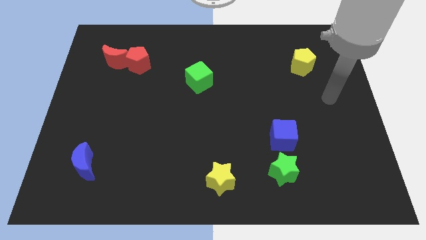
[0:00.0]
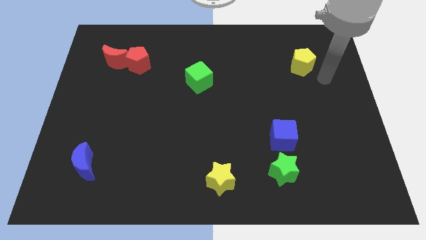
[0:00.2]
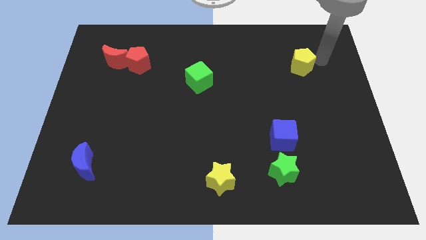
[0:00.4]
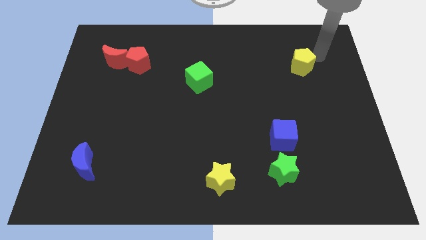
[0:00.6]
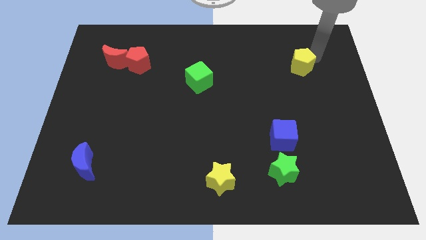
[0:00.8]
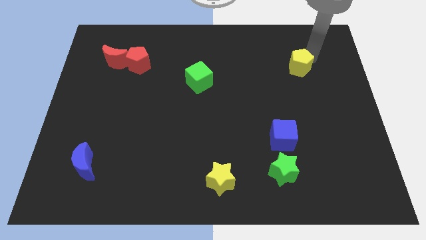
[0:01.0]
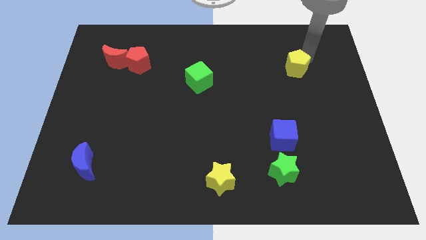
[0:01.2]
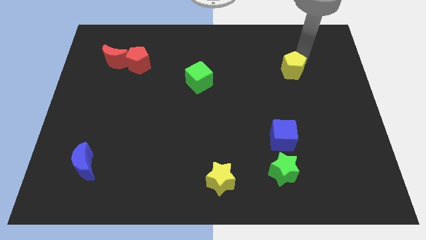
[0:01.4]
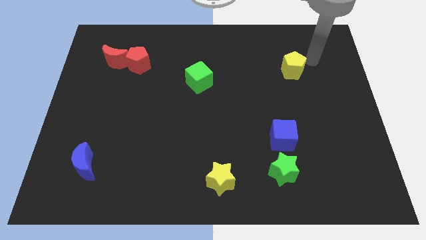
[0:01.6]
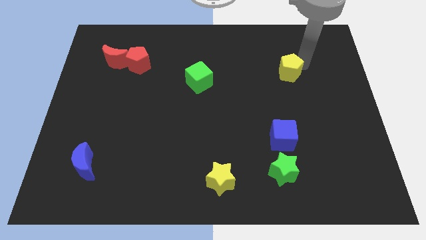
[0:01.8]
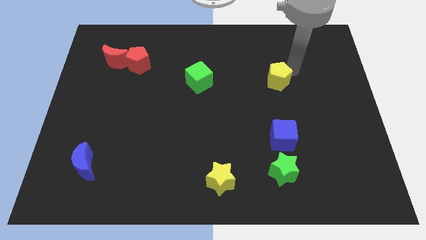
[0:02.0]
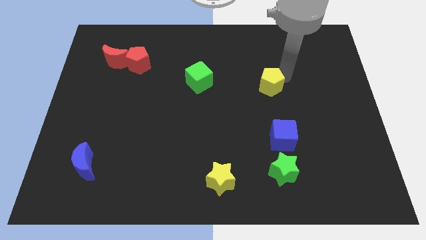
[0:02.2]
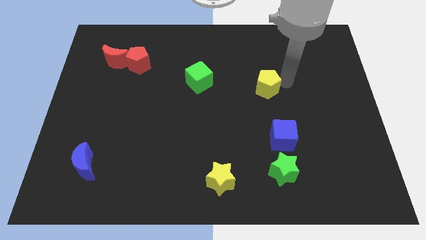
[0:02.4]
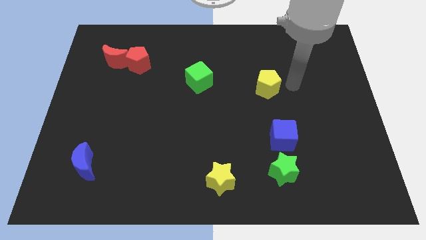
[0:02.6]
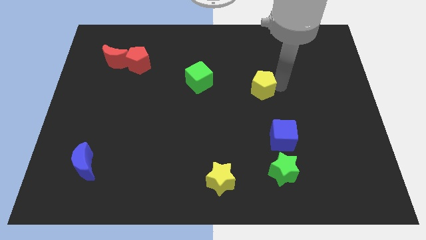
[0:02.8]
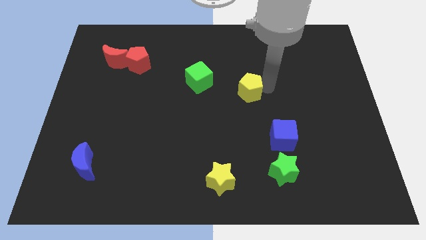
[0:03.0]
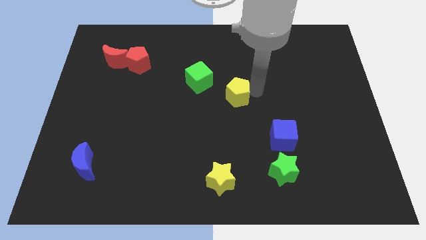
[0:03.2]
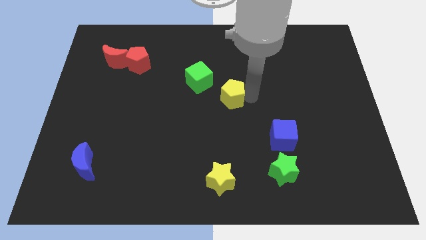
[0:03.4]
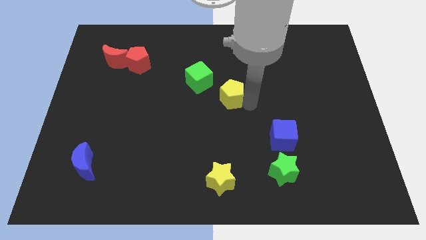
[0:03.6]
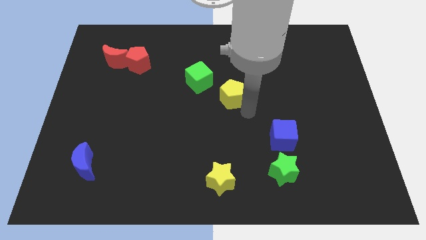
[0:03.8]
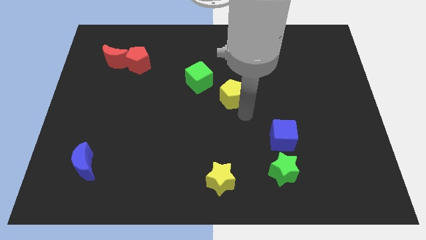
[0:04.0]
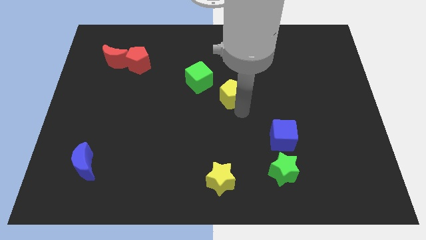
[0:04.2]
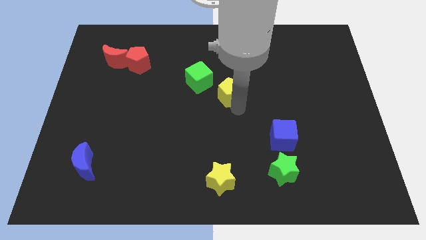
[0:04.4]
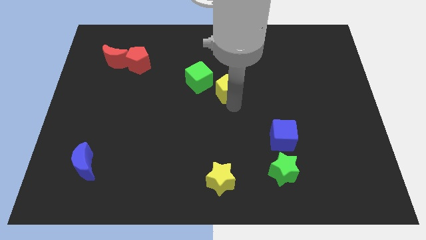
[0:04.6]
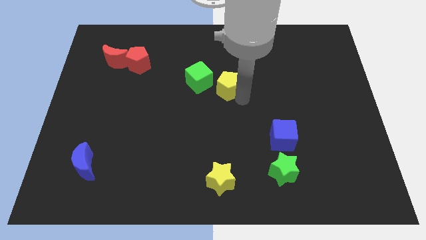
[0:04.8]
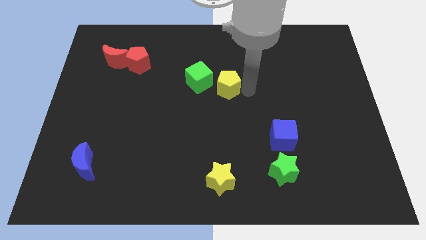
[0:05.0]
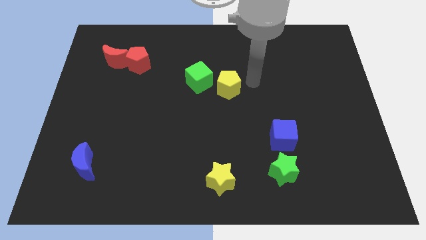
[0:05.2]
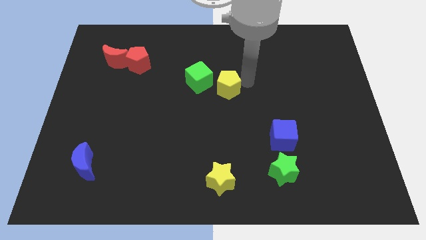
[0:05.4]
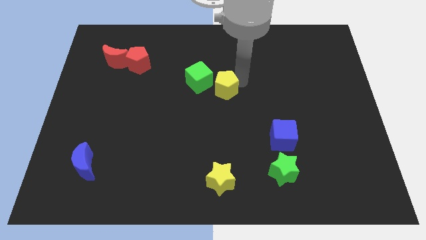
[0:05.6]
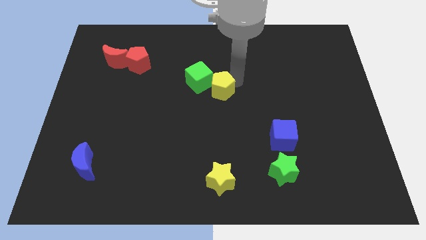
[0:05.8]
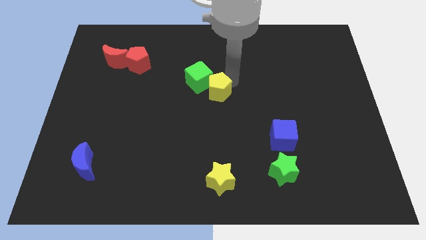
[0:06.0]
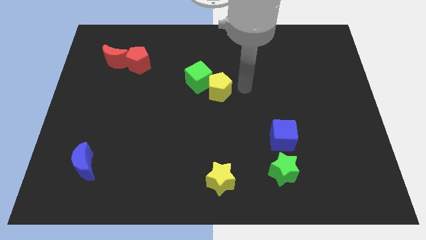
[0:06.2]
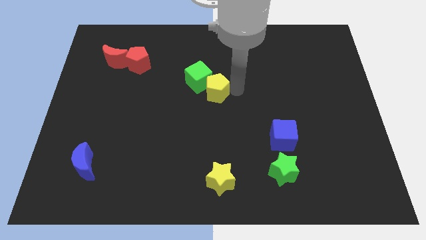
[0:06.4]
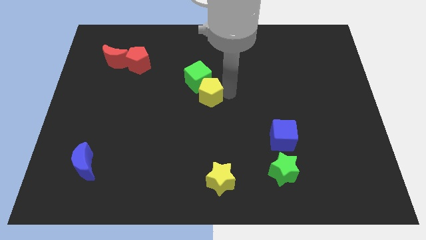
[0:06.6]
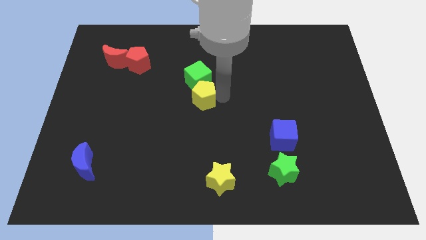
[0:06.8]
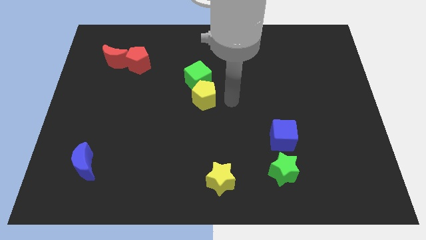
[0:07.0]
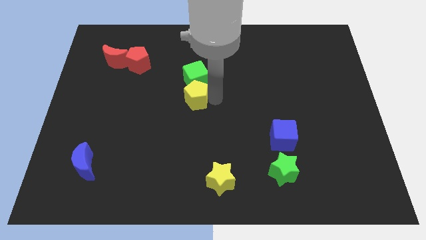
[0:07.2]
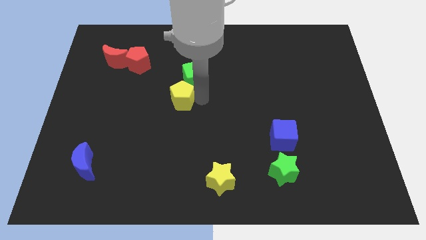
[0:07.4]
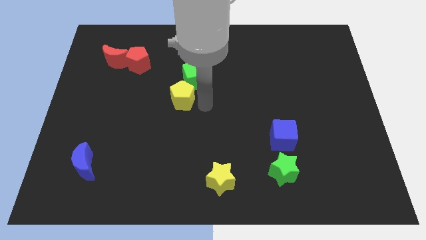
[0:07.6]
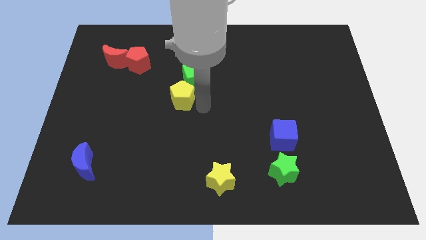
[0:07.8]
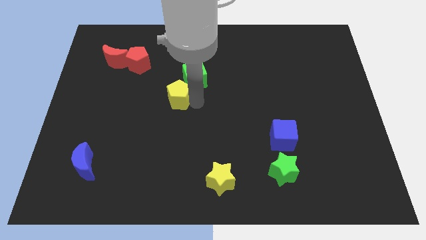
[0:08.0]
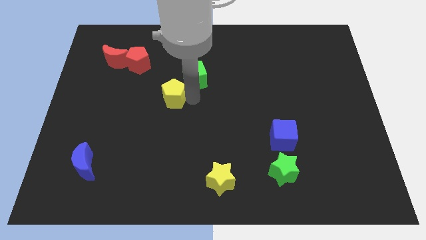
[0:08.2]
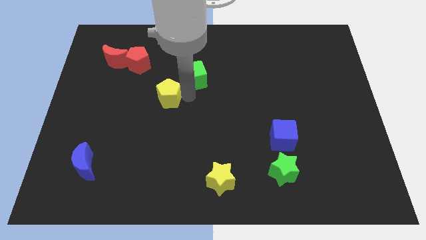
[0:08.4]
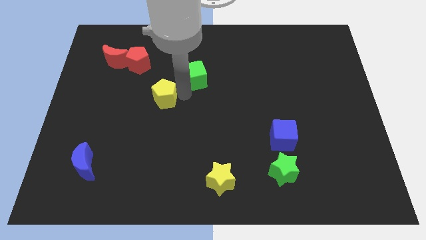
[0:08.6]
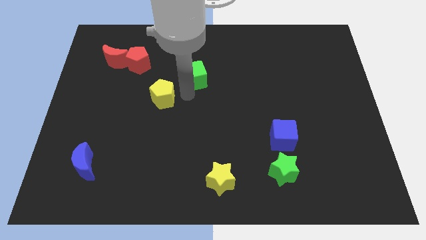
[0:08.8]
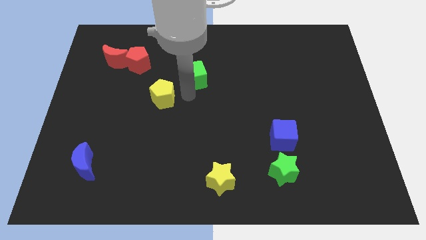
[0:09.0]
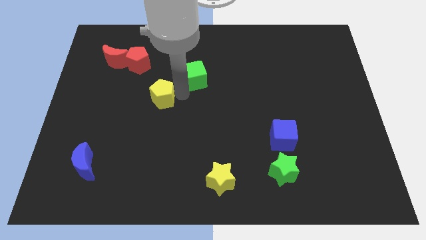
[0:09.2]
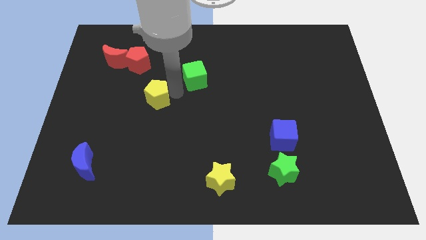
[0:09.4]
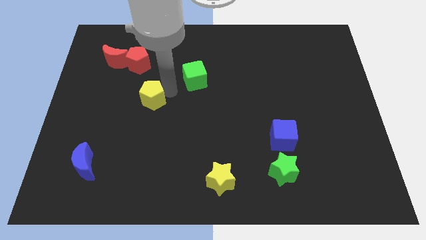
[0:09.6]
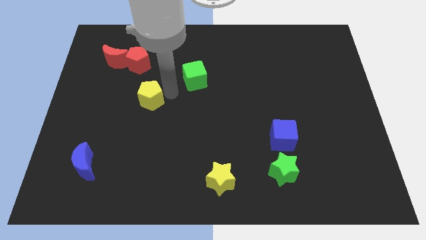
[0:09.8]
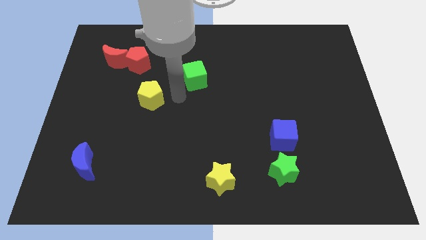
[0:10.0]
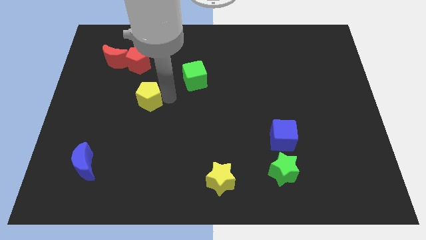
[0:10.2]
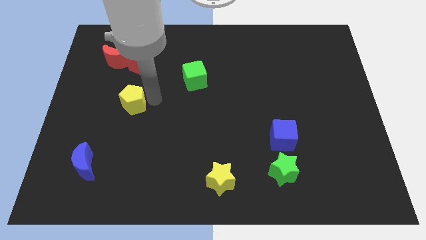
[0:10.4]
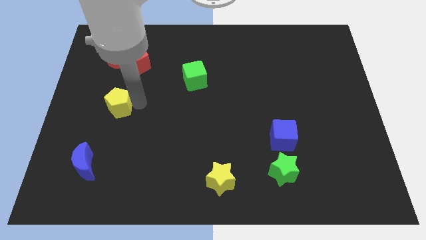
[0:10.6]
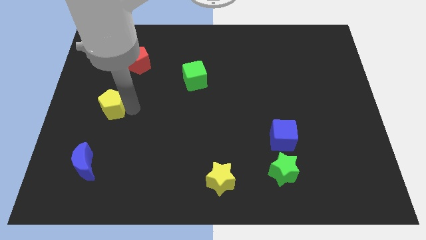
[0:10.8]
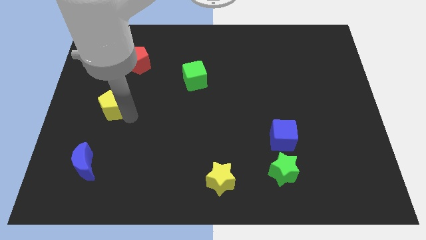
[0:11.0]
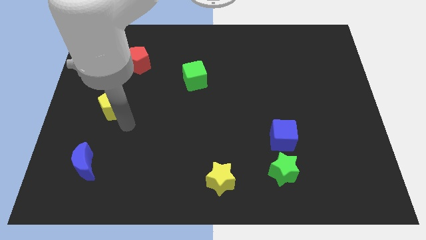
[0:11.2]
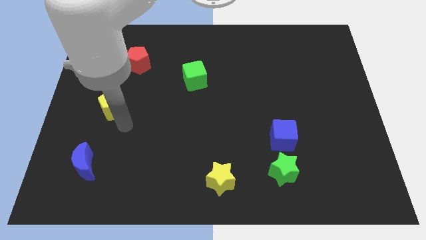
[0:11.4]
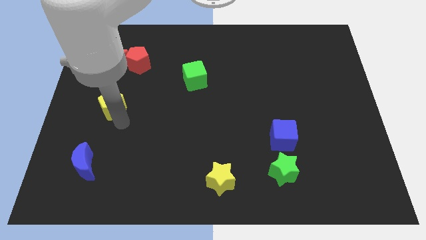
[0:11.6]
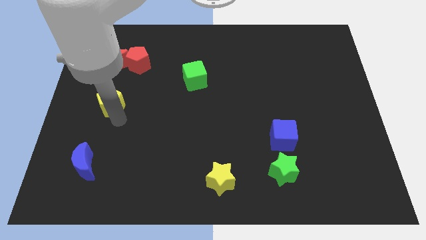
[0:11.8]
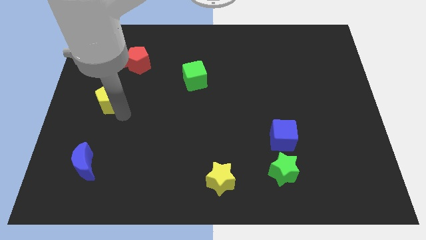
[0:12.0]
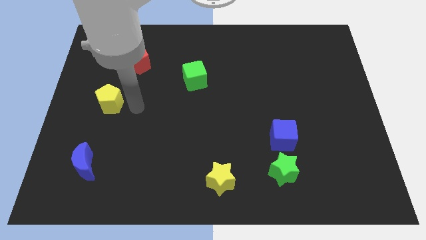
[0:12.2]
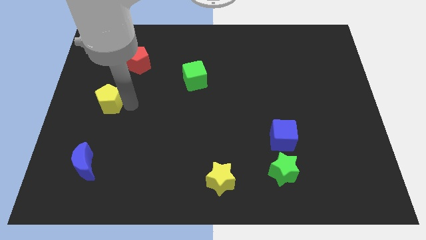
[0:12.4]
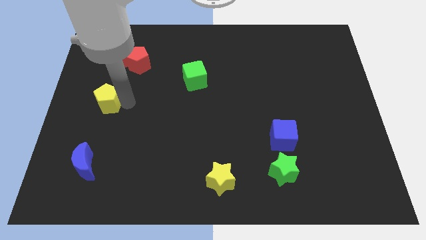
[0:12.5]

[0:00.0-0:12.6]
push the yellow pentagon to the left side
